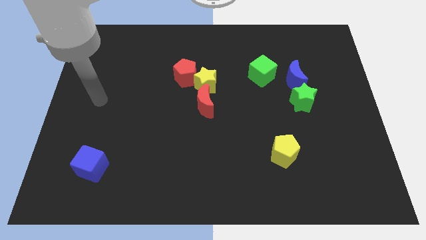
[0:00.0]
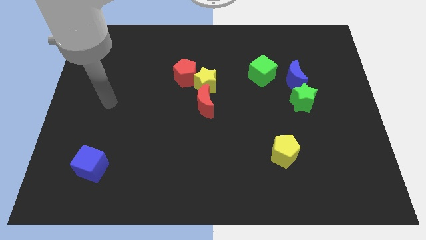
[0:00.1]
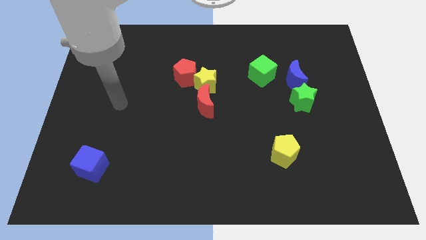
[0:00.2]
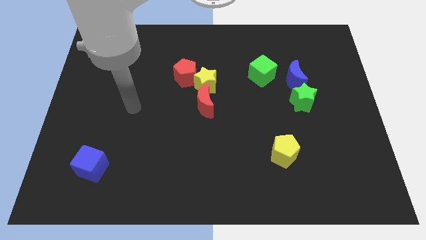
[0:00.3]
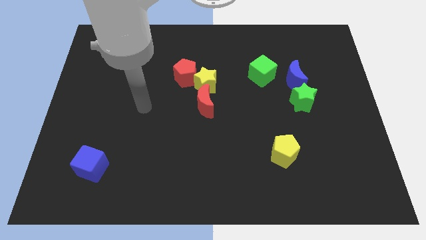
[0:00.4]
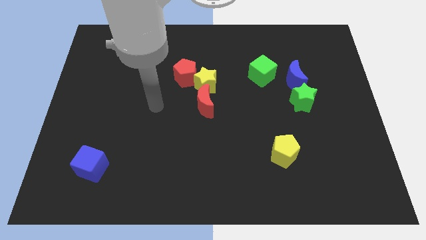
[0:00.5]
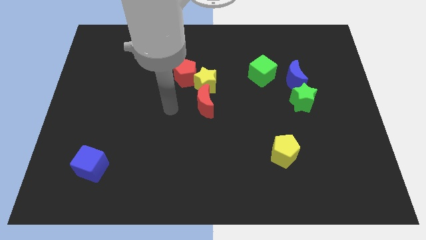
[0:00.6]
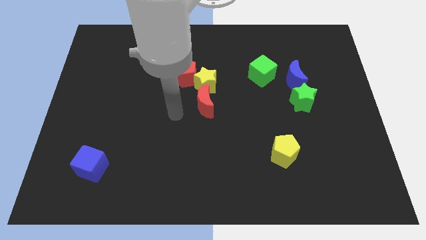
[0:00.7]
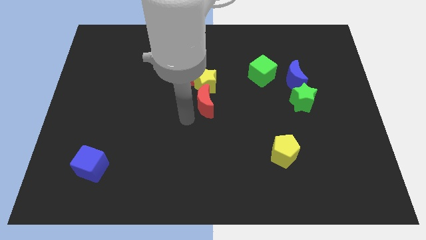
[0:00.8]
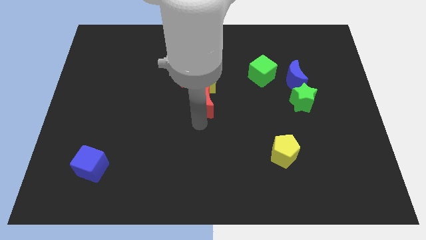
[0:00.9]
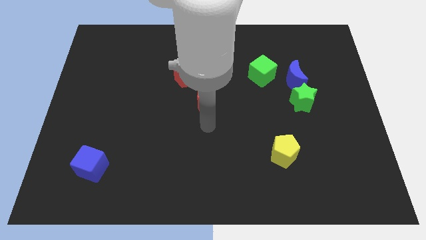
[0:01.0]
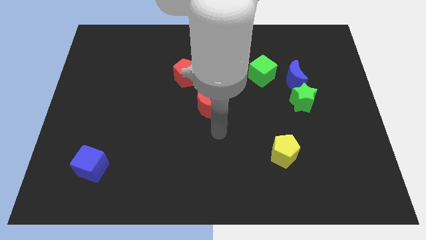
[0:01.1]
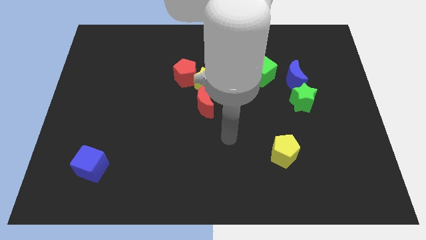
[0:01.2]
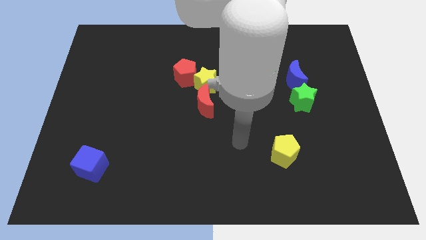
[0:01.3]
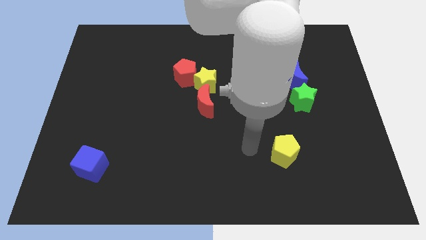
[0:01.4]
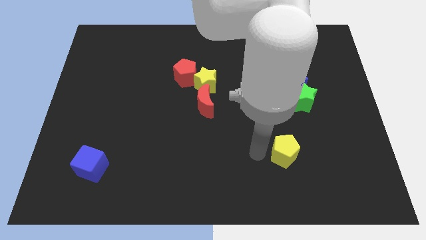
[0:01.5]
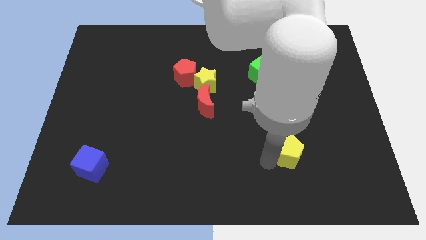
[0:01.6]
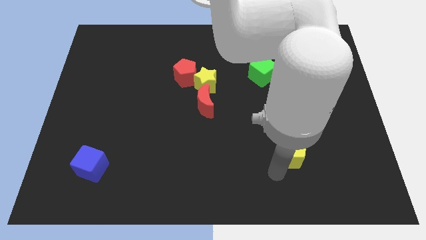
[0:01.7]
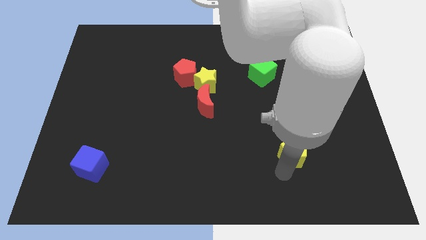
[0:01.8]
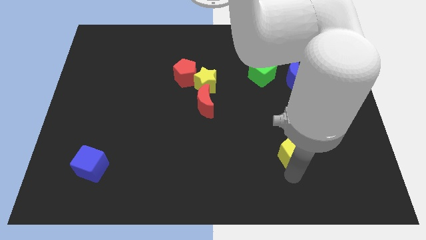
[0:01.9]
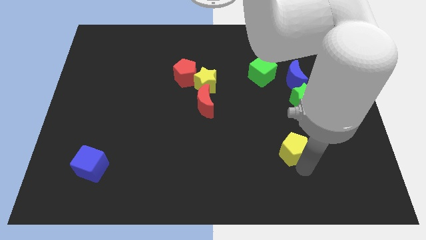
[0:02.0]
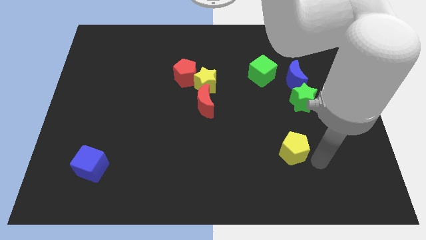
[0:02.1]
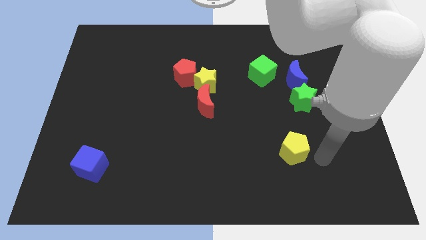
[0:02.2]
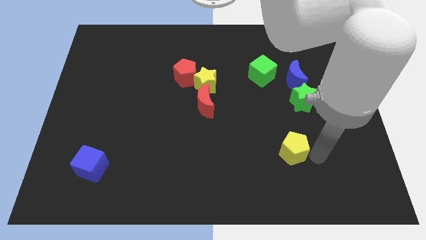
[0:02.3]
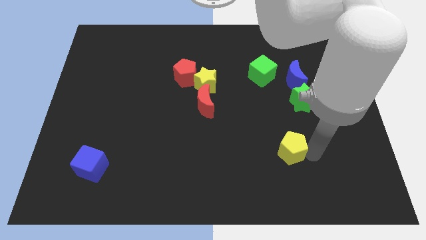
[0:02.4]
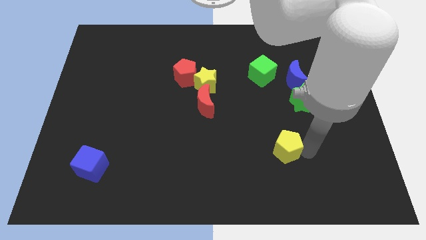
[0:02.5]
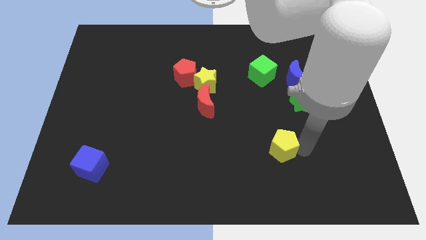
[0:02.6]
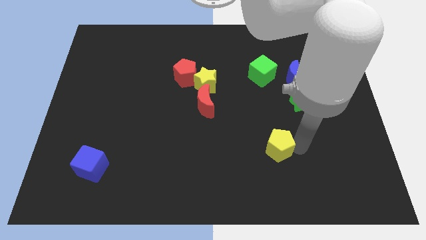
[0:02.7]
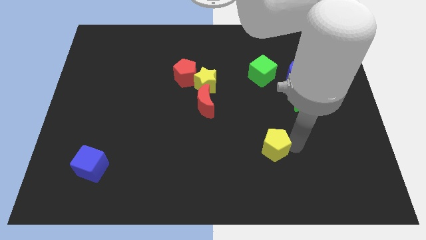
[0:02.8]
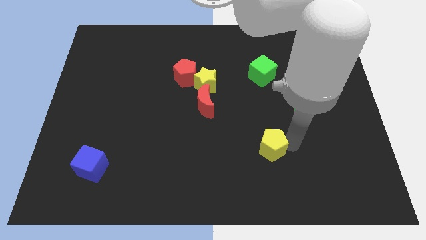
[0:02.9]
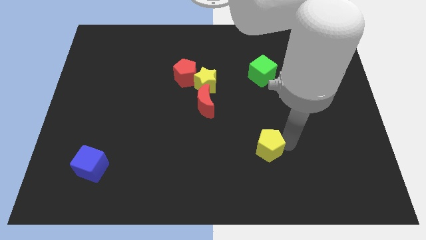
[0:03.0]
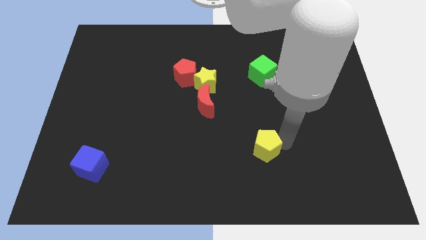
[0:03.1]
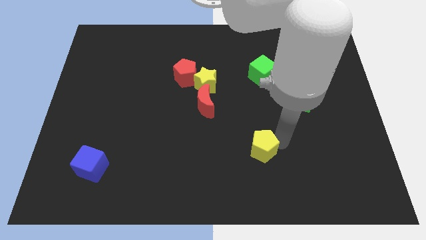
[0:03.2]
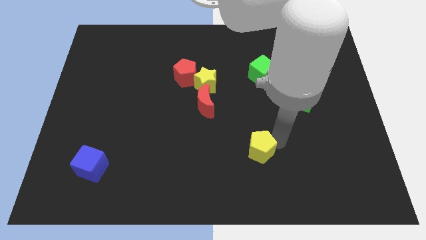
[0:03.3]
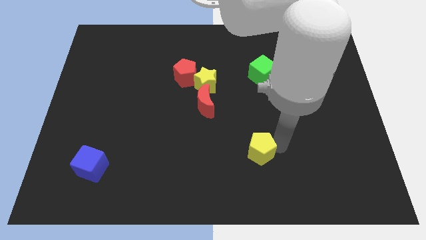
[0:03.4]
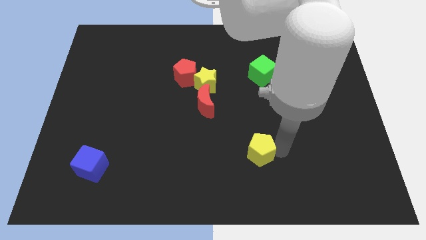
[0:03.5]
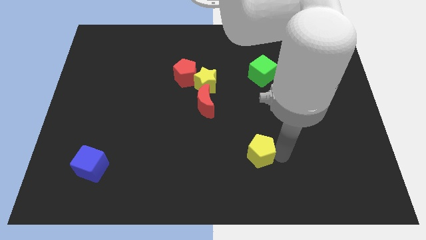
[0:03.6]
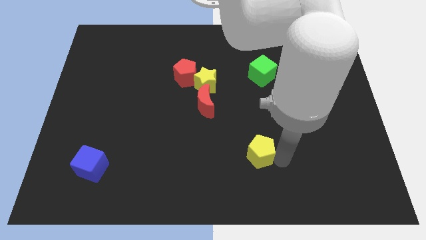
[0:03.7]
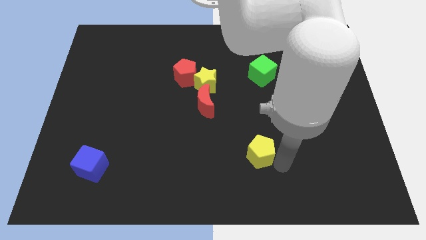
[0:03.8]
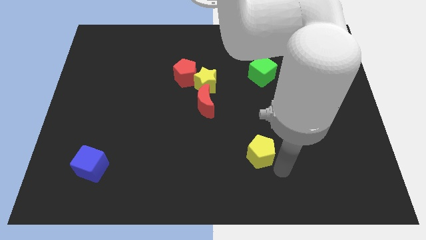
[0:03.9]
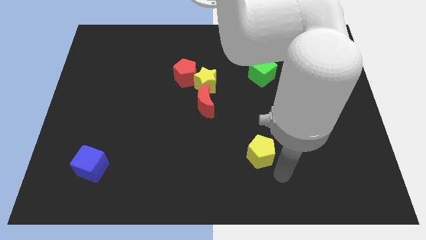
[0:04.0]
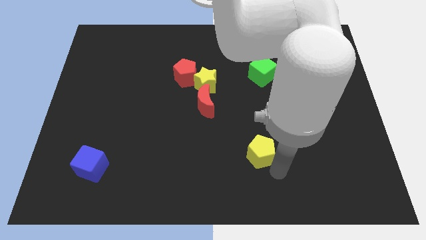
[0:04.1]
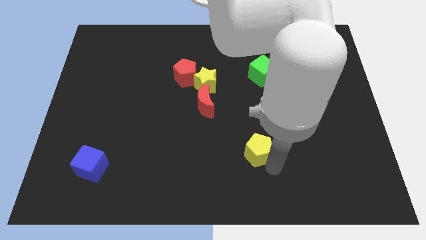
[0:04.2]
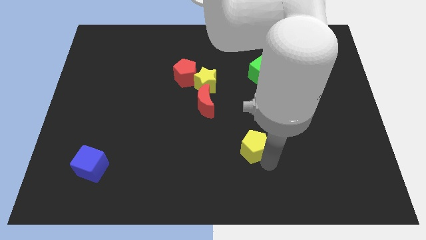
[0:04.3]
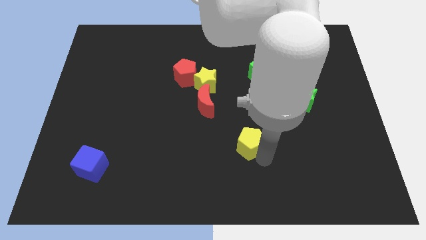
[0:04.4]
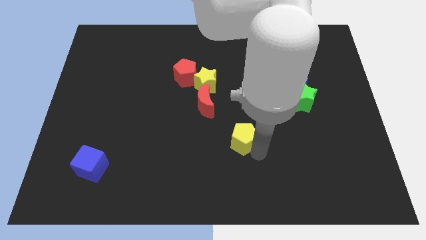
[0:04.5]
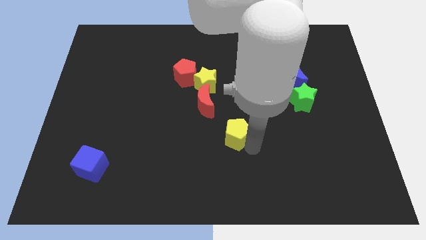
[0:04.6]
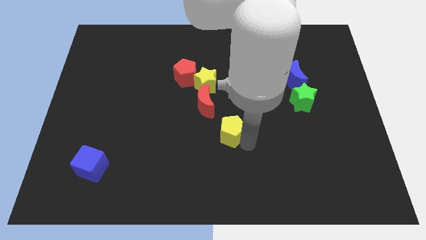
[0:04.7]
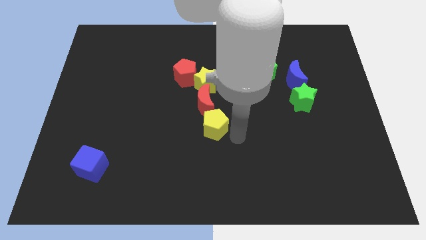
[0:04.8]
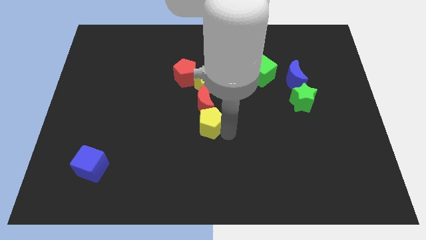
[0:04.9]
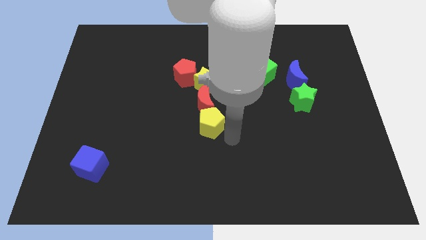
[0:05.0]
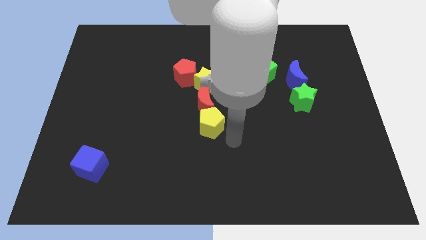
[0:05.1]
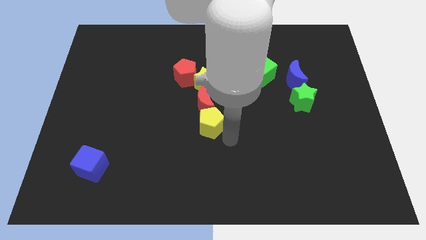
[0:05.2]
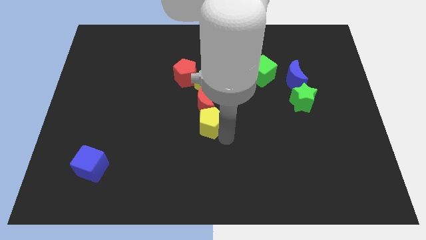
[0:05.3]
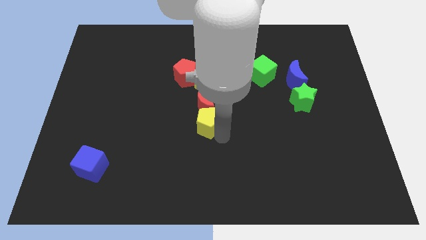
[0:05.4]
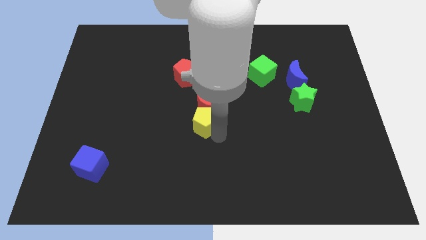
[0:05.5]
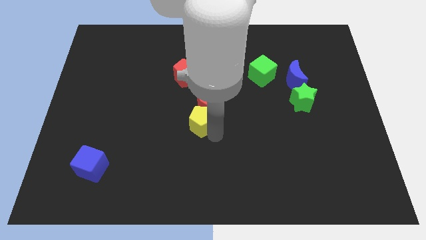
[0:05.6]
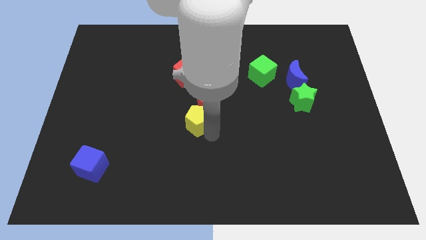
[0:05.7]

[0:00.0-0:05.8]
move the yellow pentagon to the bottom side of the red pentagon

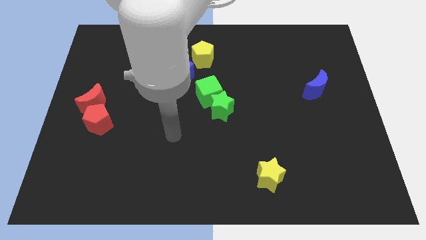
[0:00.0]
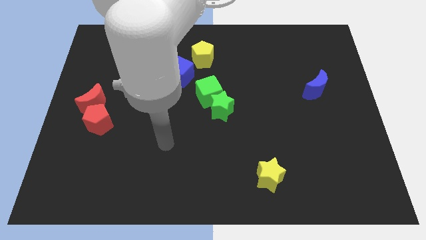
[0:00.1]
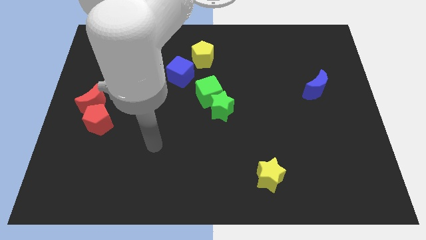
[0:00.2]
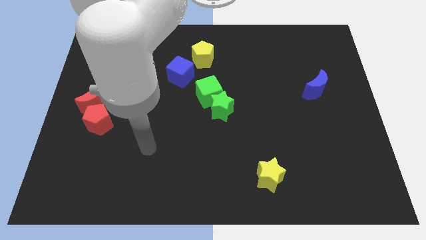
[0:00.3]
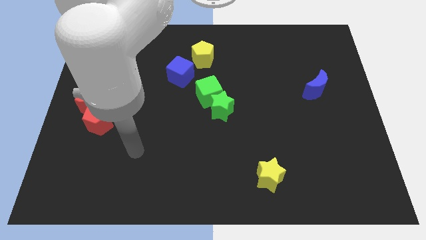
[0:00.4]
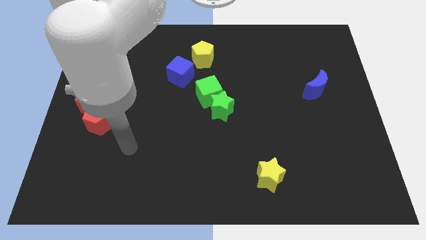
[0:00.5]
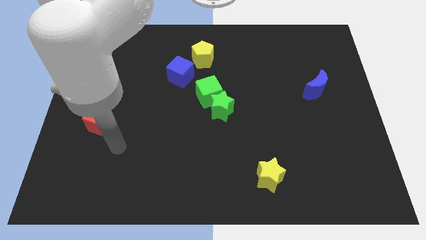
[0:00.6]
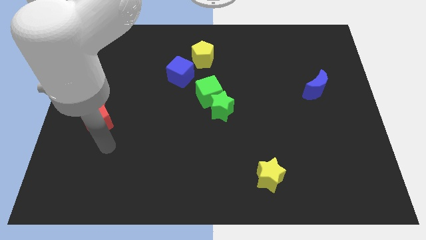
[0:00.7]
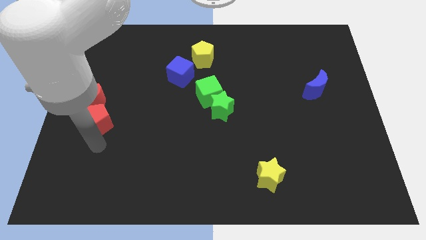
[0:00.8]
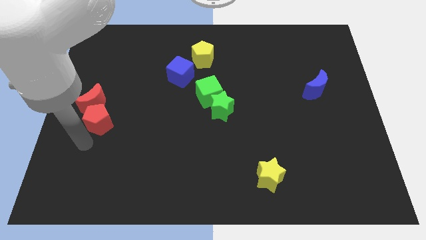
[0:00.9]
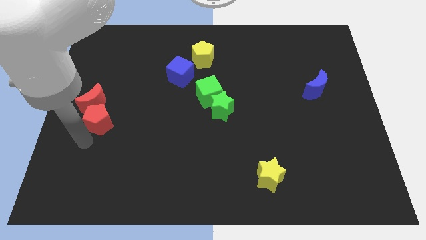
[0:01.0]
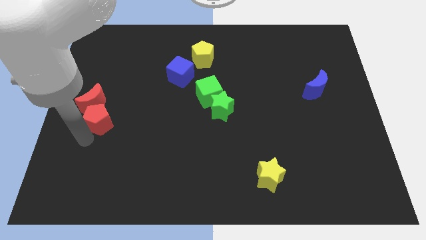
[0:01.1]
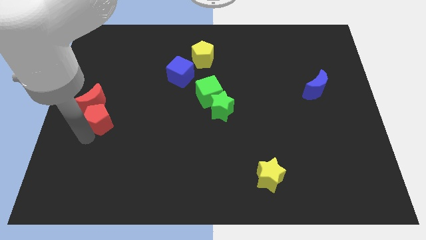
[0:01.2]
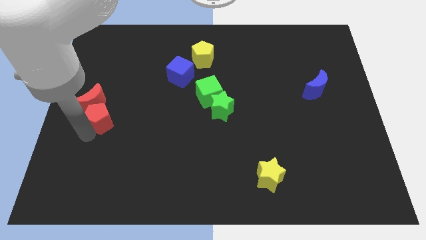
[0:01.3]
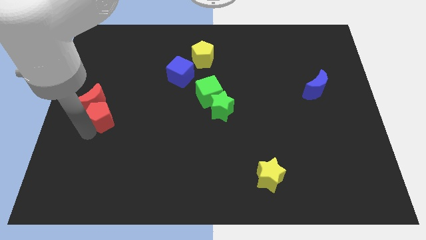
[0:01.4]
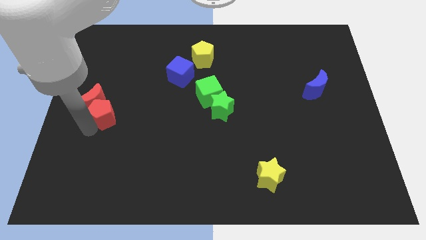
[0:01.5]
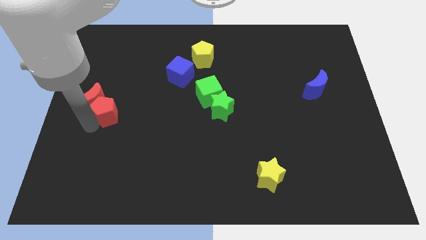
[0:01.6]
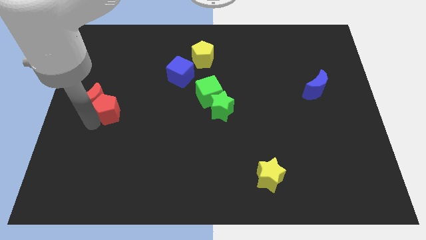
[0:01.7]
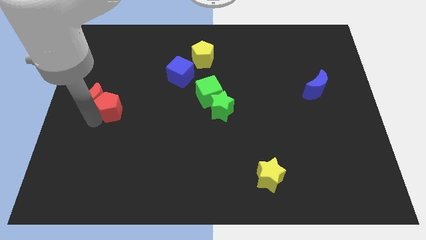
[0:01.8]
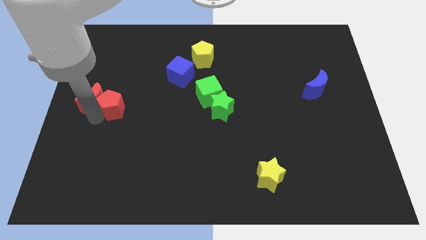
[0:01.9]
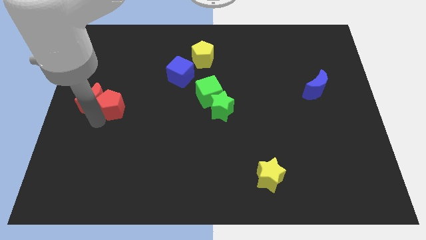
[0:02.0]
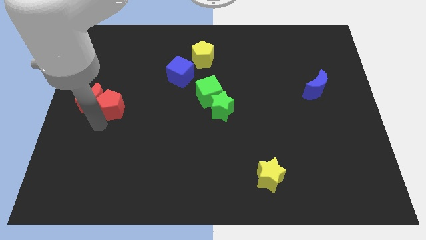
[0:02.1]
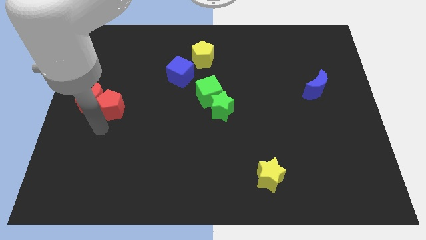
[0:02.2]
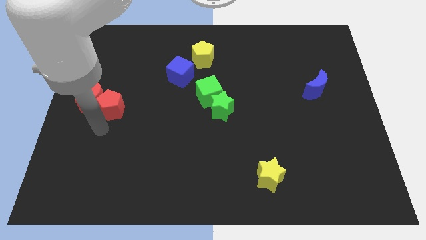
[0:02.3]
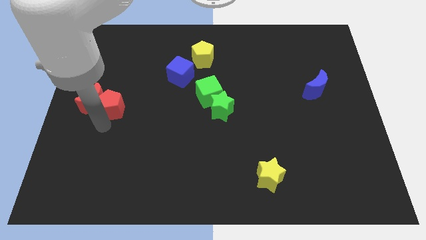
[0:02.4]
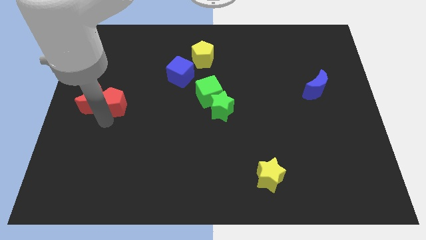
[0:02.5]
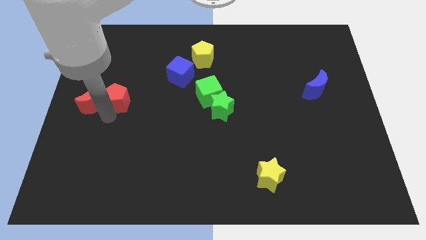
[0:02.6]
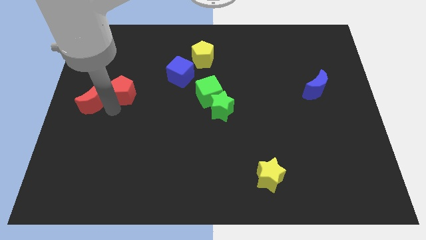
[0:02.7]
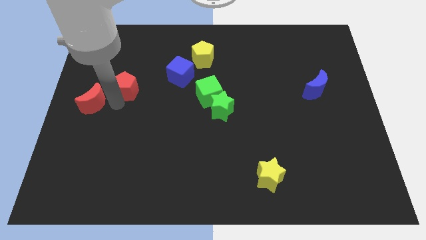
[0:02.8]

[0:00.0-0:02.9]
push the red pentagon to the left side of the blue cube
